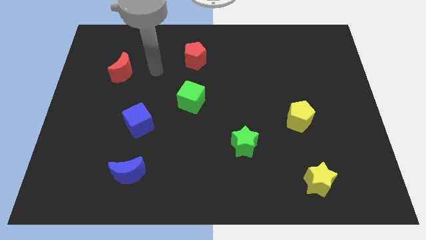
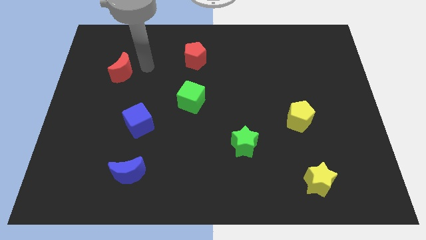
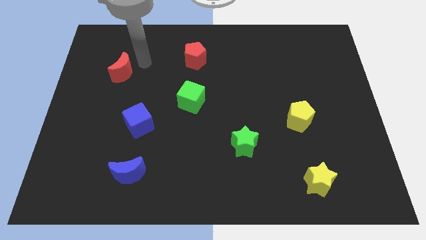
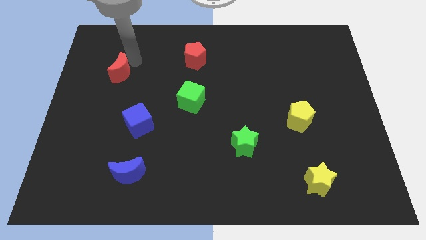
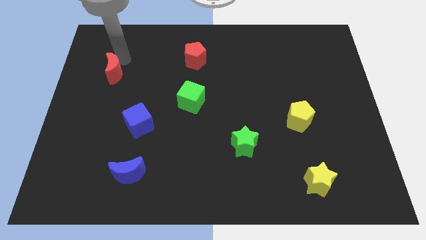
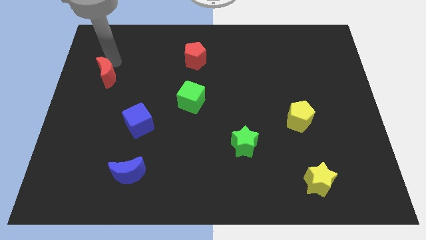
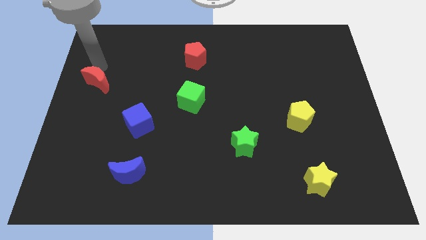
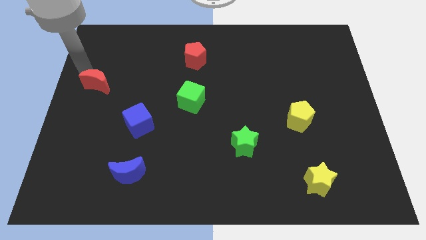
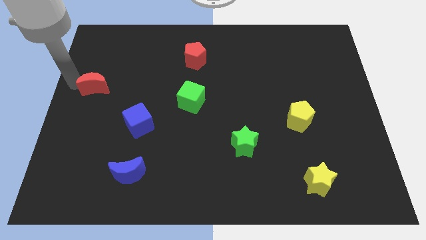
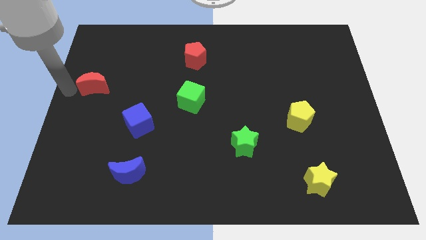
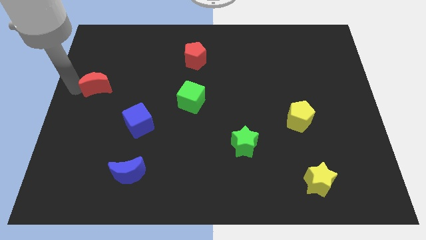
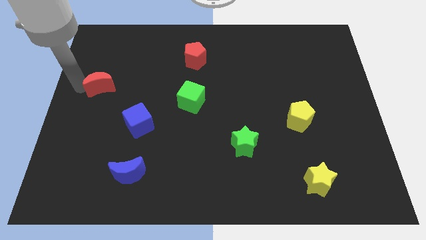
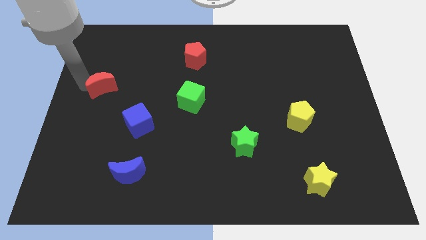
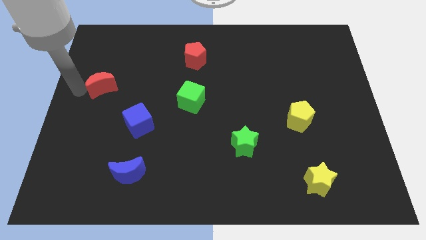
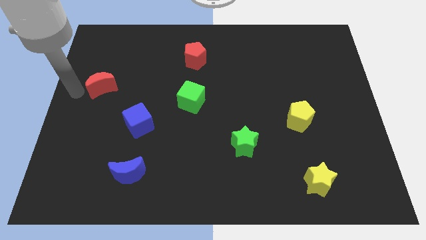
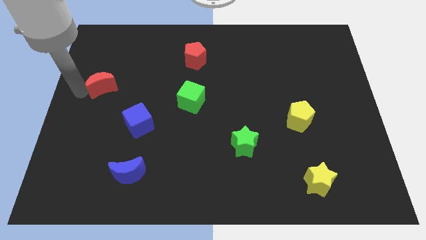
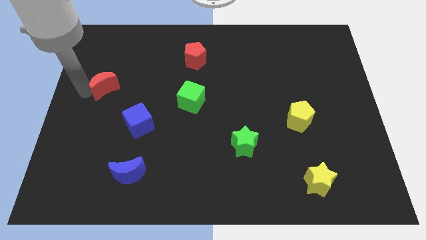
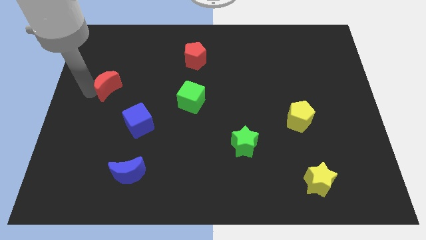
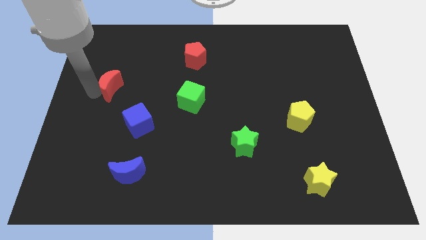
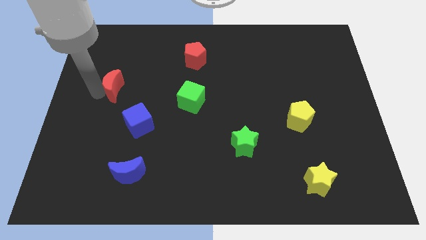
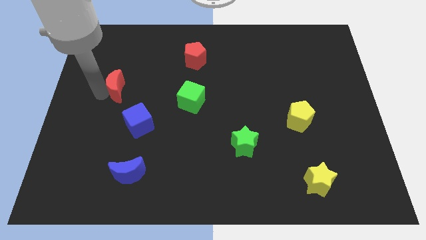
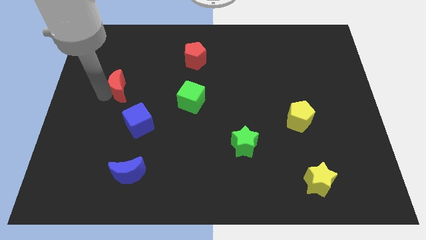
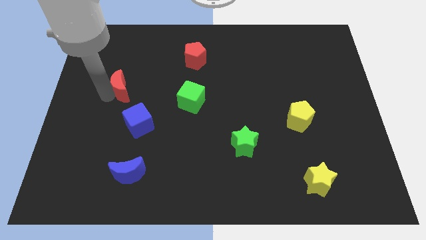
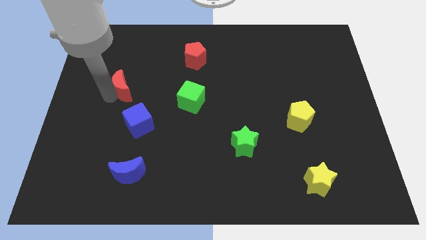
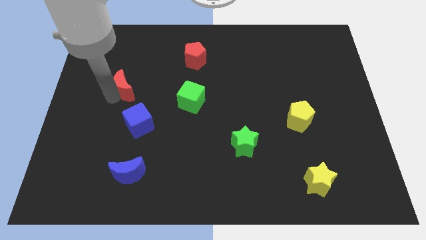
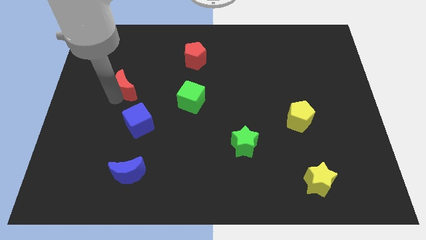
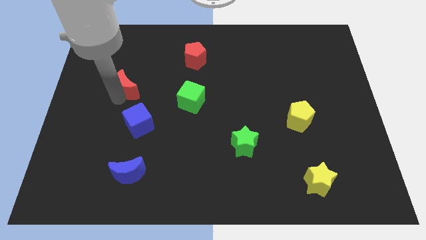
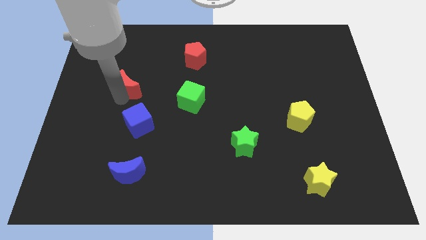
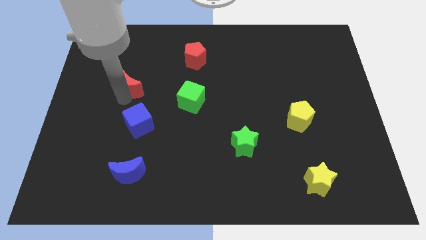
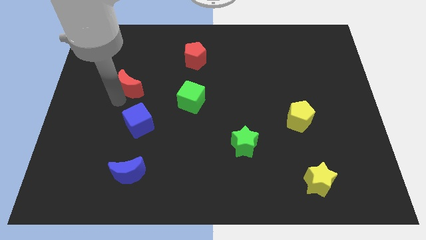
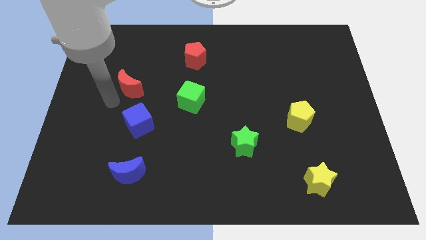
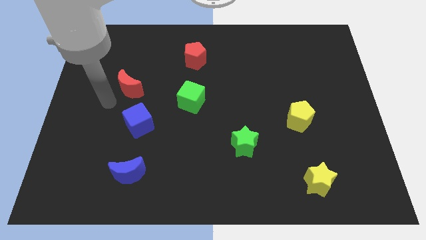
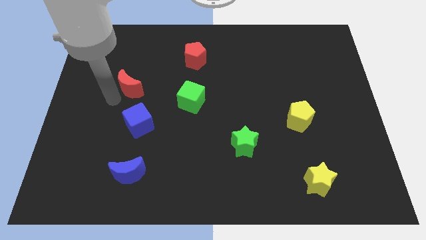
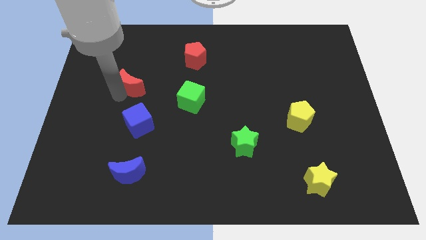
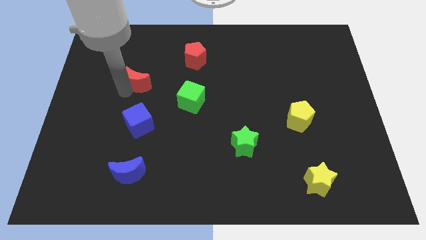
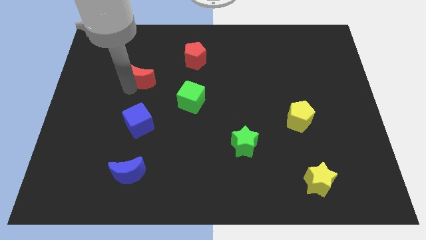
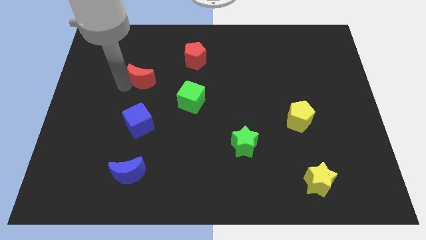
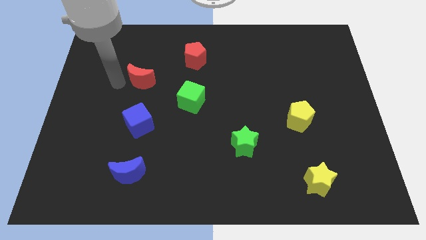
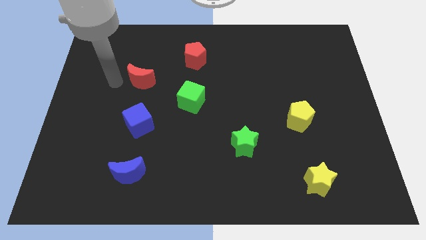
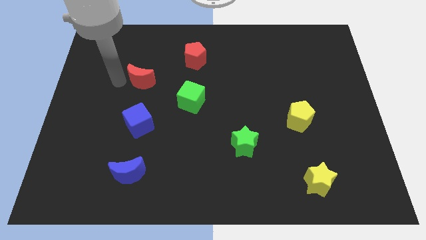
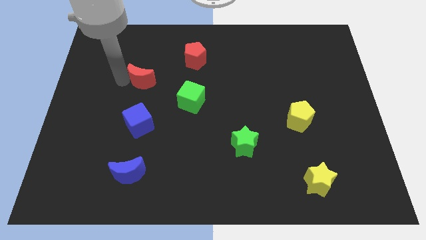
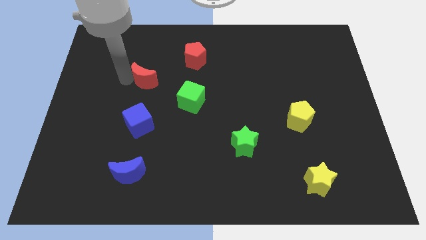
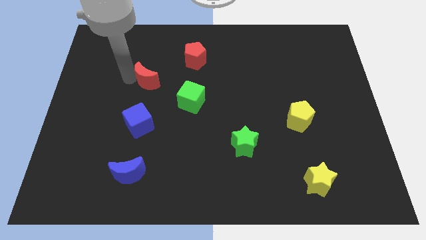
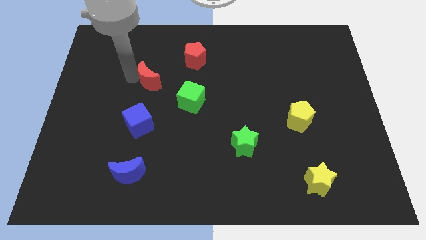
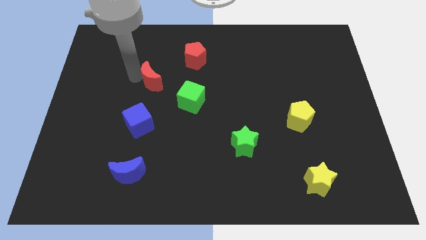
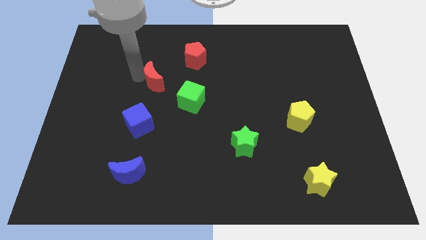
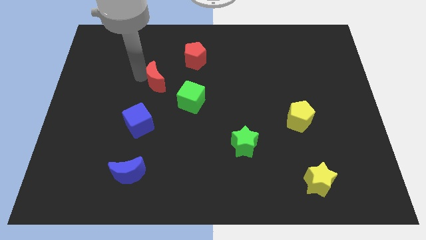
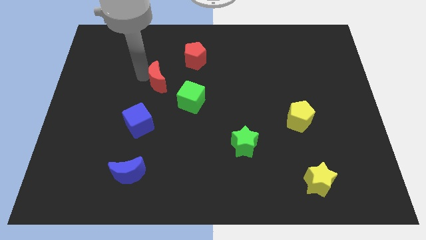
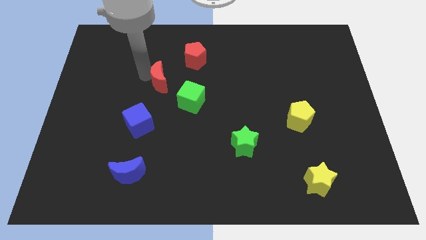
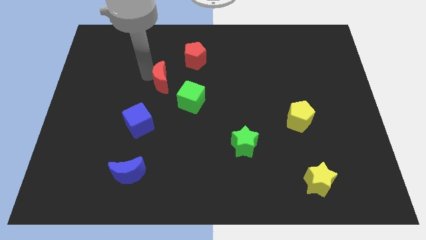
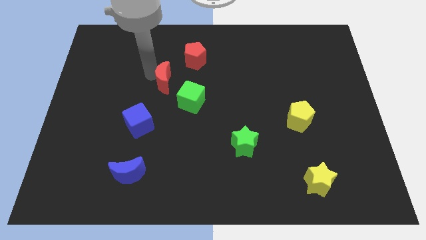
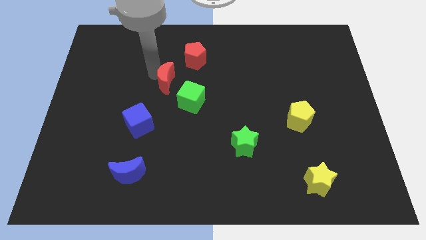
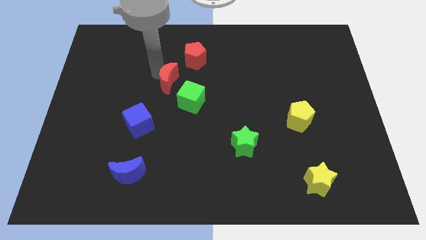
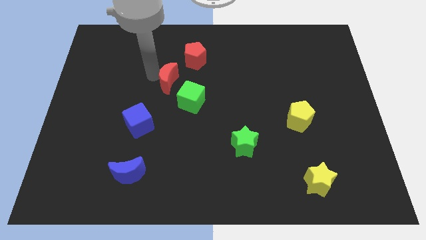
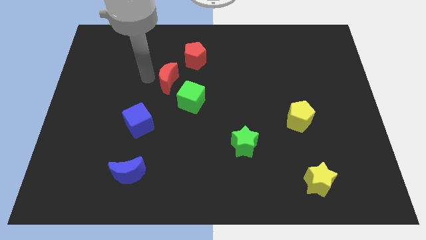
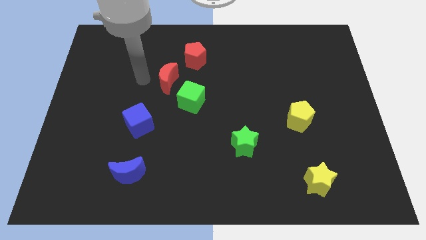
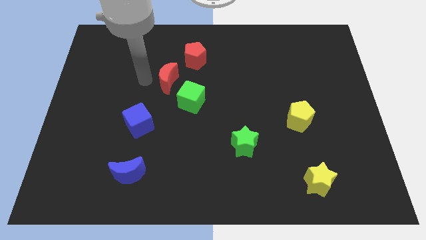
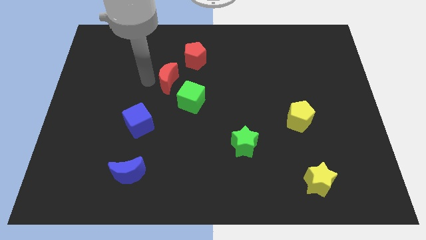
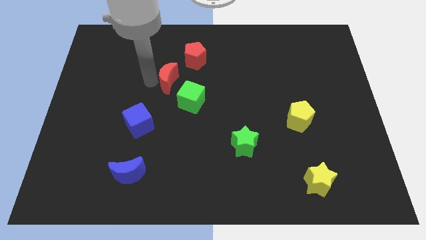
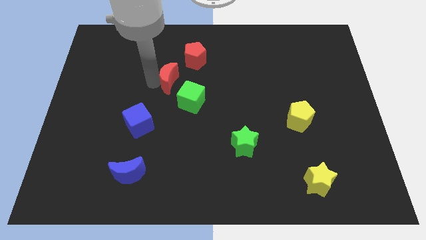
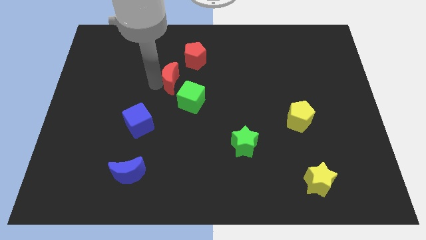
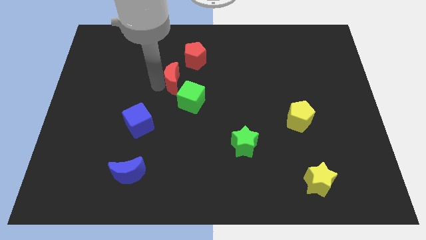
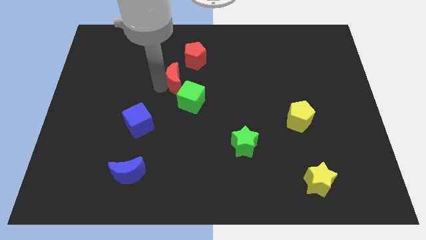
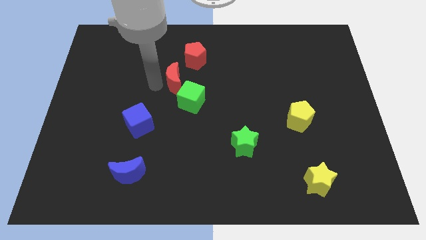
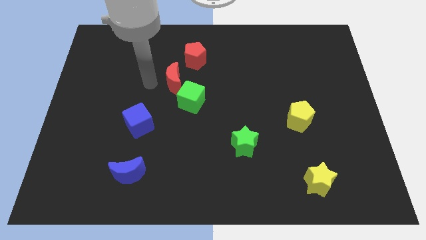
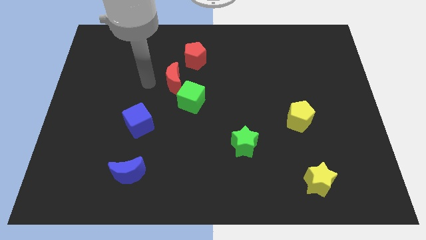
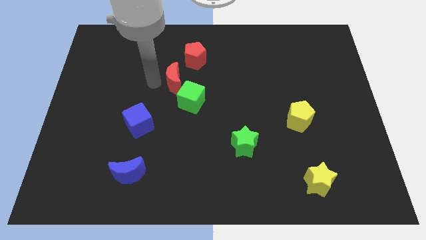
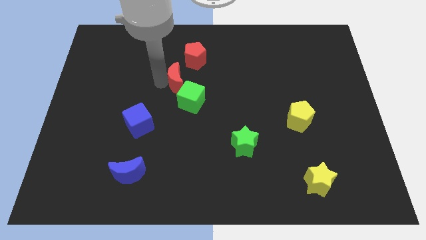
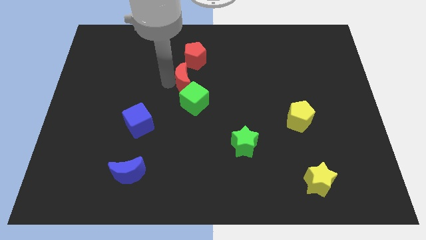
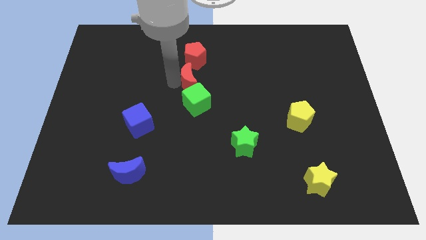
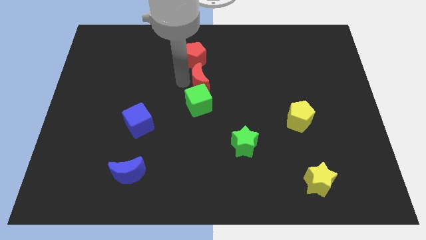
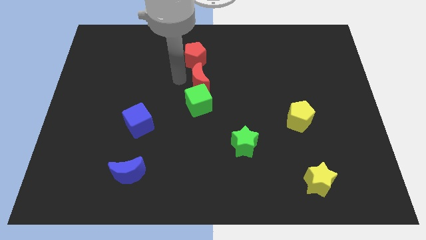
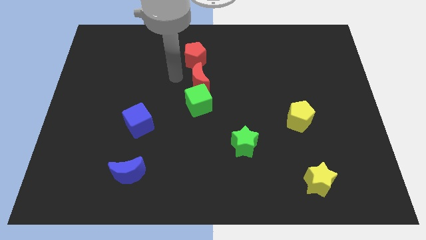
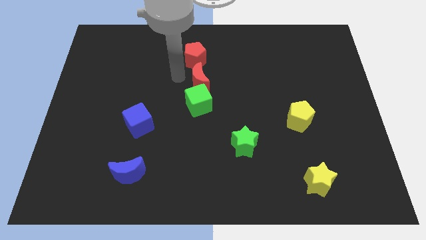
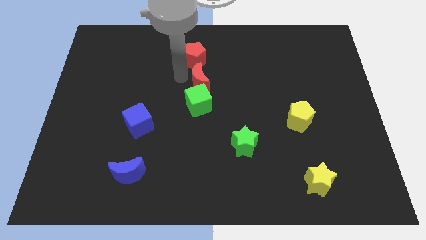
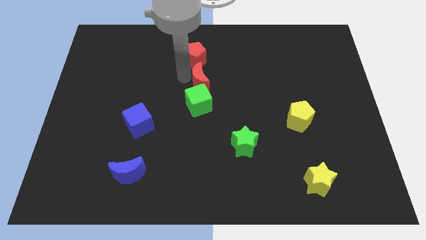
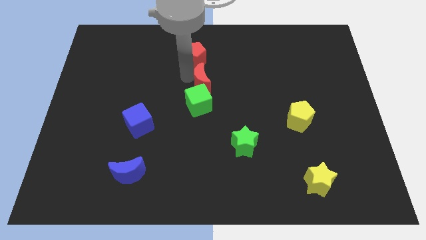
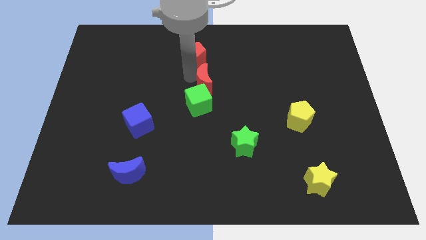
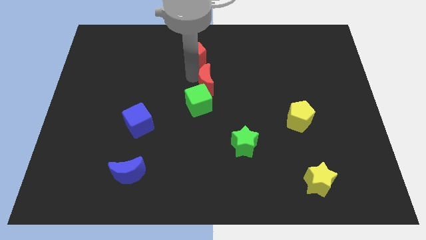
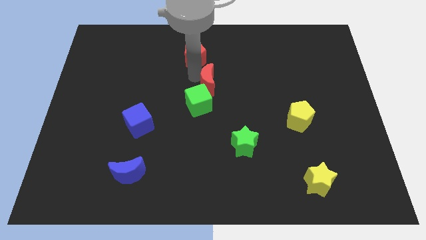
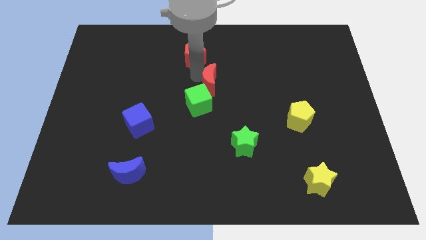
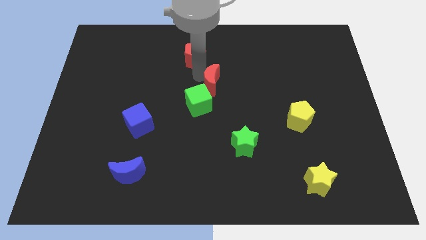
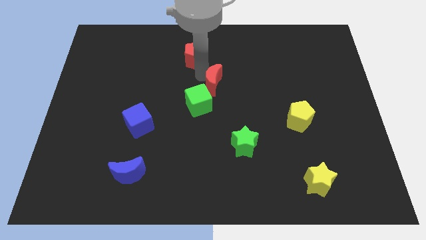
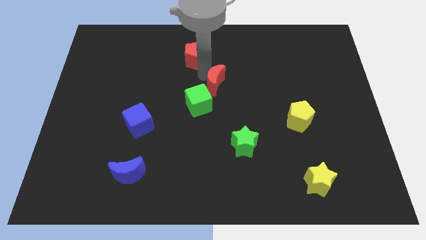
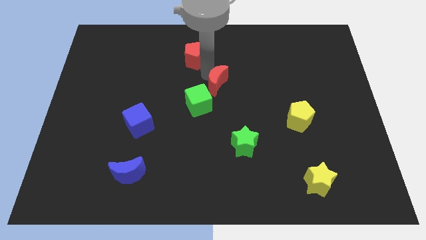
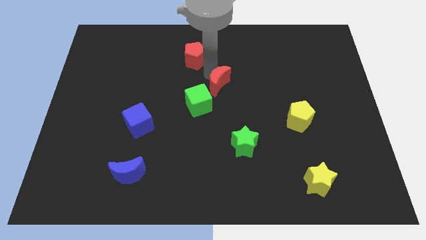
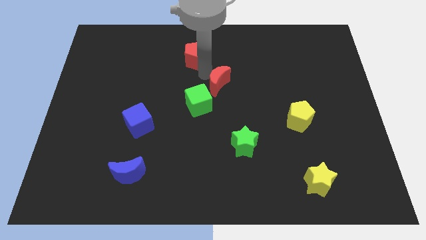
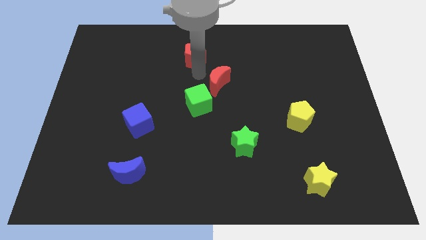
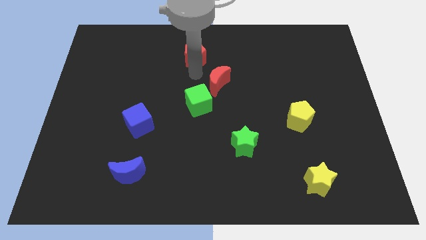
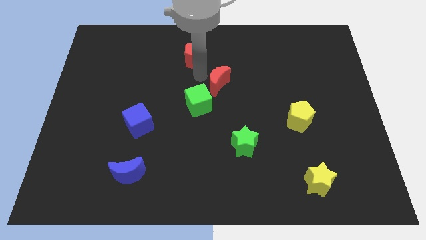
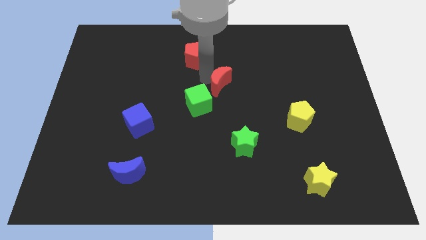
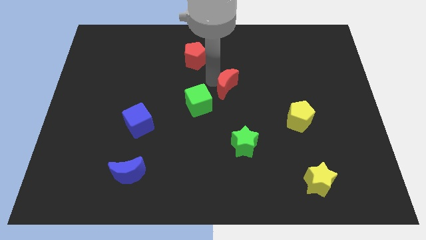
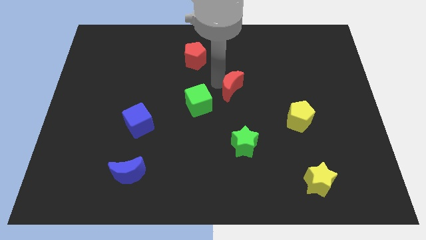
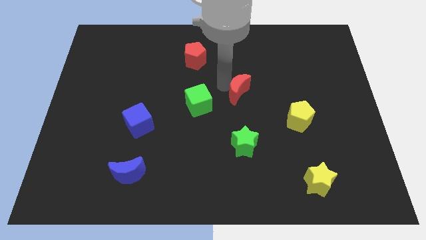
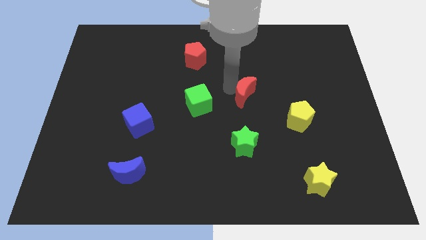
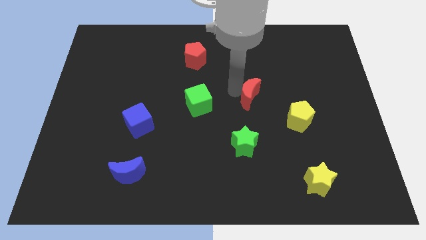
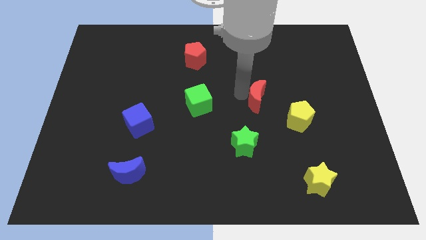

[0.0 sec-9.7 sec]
push the red moon to the top left side of the yellow pentagon
